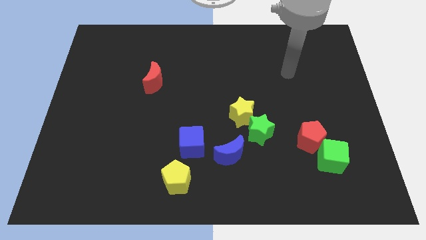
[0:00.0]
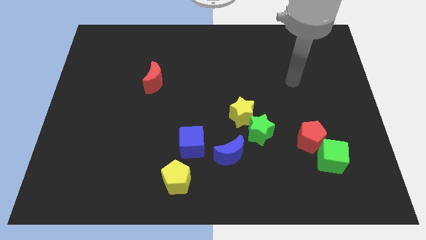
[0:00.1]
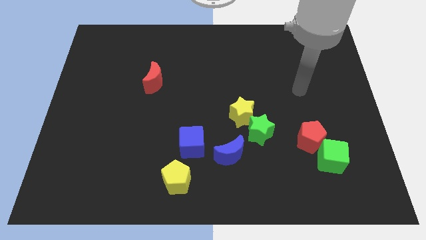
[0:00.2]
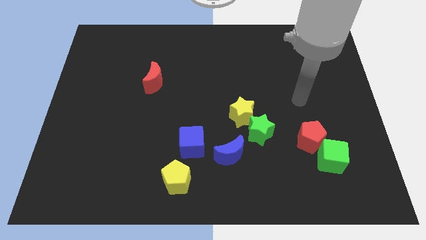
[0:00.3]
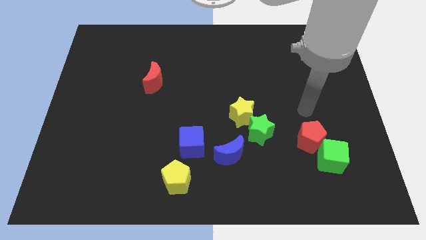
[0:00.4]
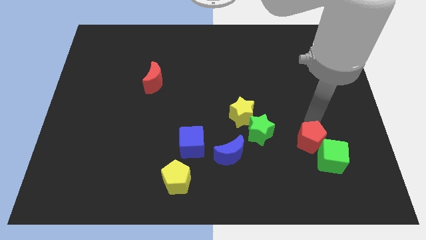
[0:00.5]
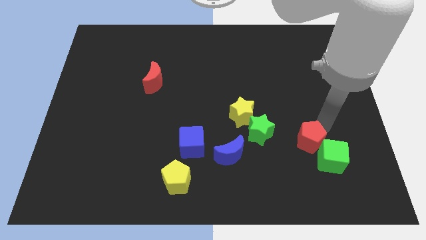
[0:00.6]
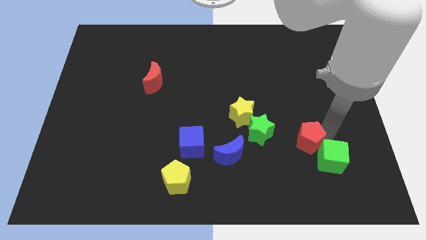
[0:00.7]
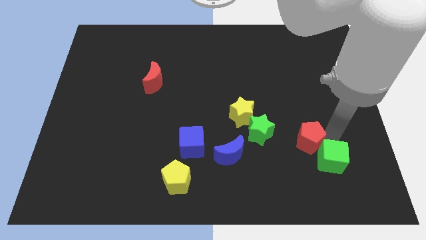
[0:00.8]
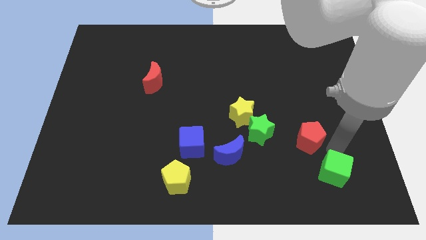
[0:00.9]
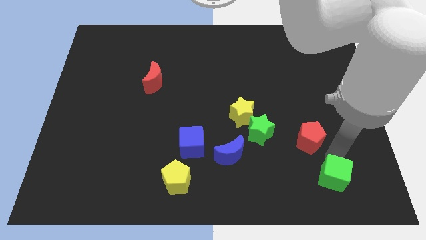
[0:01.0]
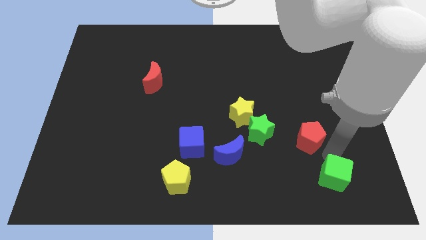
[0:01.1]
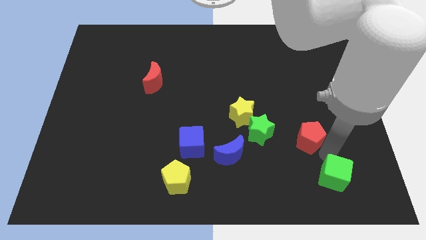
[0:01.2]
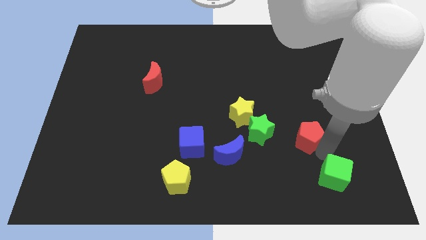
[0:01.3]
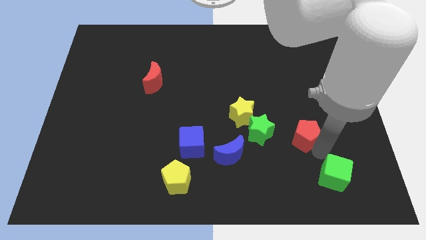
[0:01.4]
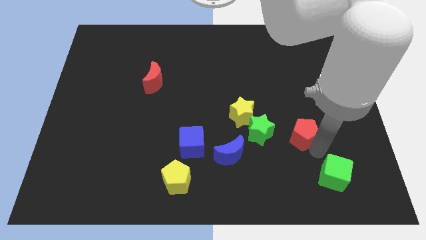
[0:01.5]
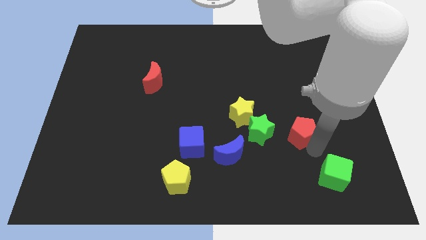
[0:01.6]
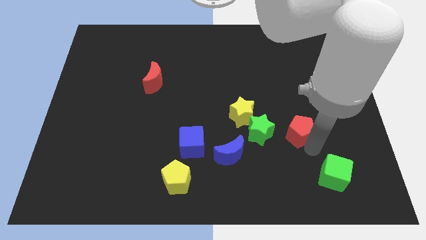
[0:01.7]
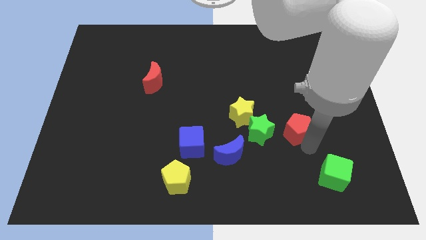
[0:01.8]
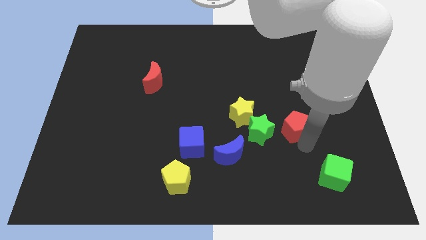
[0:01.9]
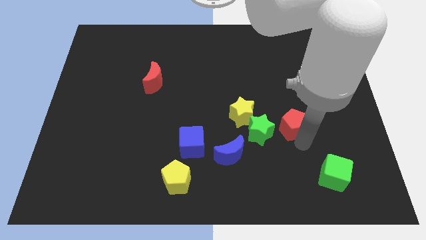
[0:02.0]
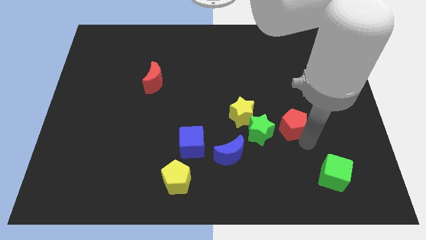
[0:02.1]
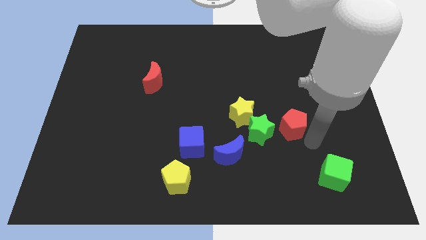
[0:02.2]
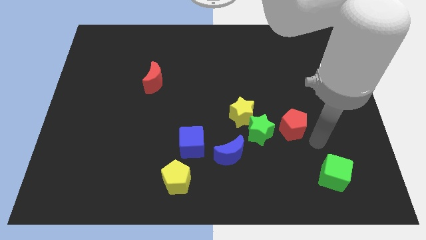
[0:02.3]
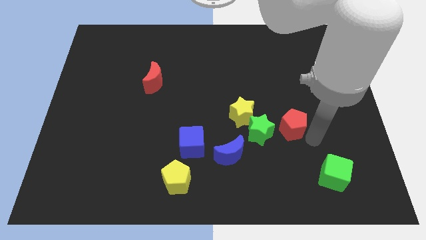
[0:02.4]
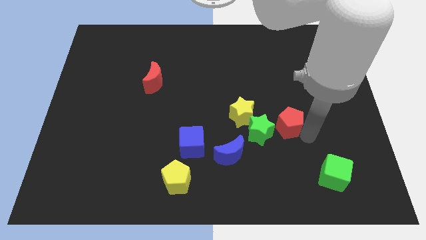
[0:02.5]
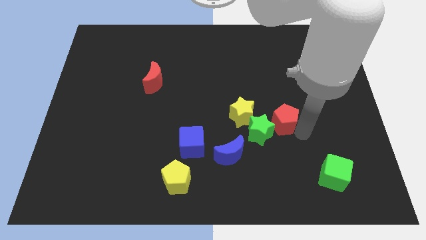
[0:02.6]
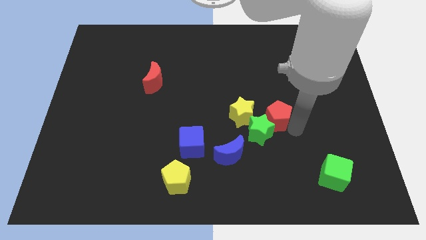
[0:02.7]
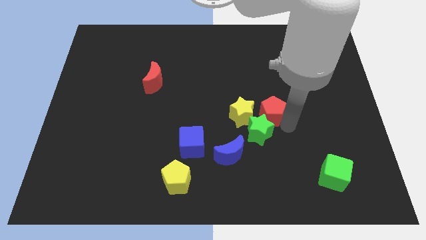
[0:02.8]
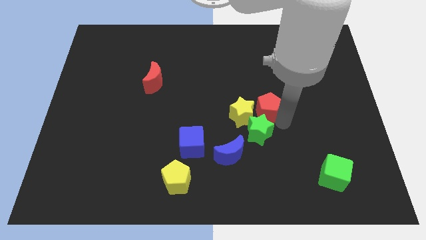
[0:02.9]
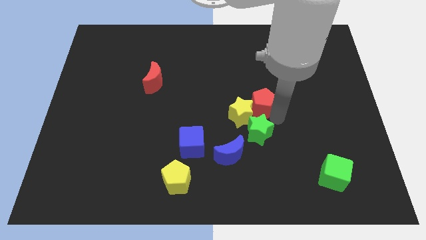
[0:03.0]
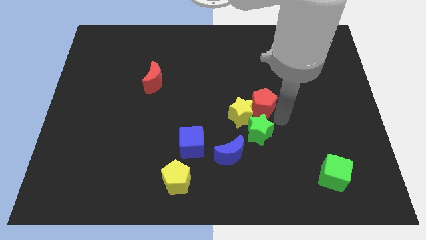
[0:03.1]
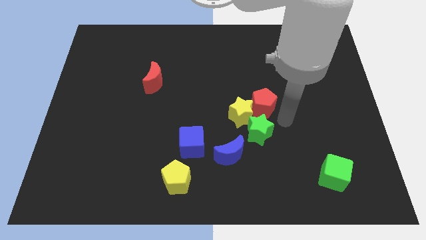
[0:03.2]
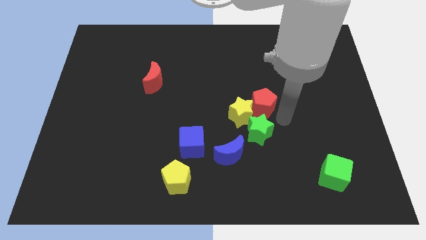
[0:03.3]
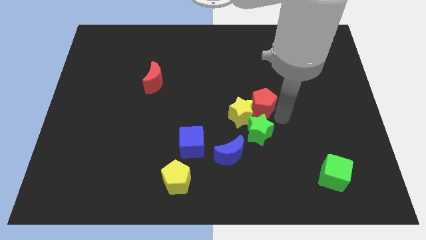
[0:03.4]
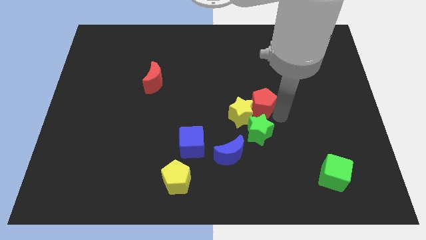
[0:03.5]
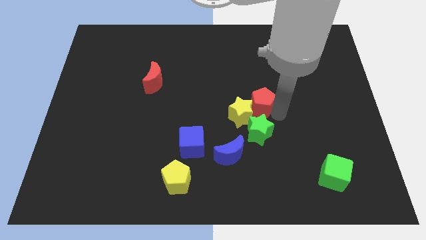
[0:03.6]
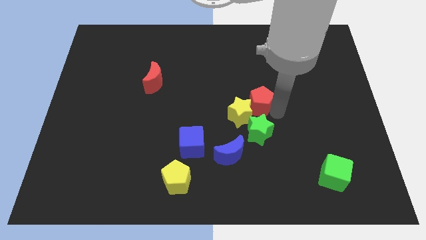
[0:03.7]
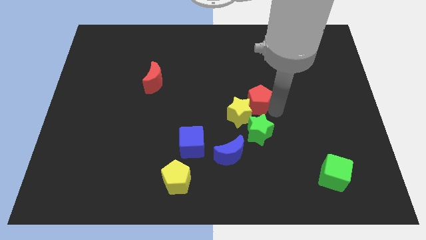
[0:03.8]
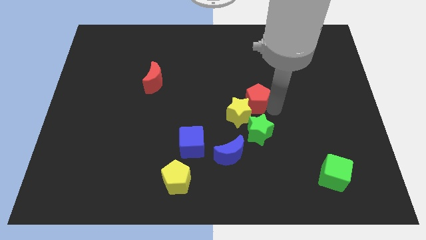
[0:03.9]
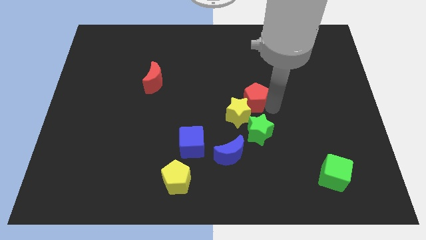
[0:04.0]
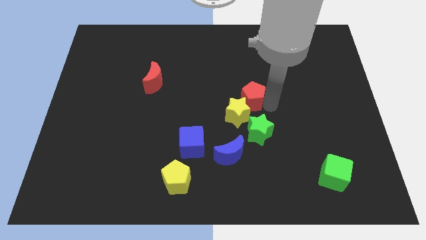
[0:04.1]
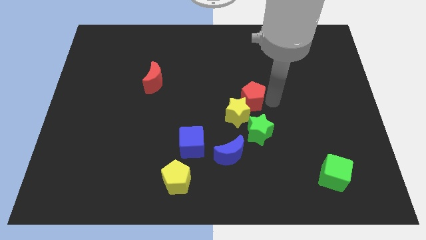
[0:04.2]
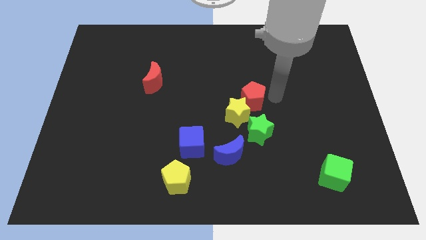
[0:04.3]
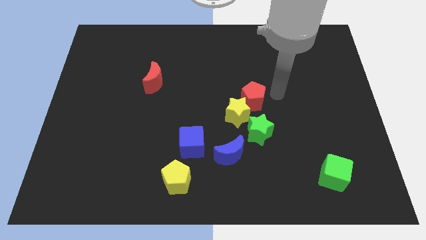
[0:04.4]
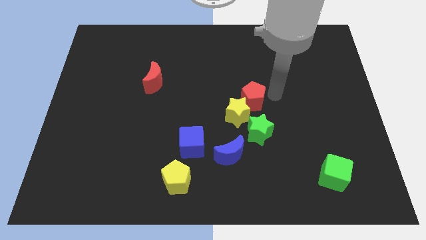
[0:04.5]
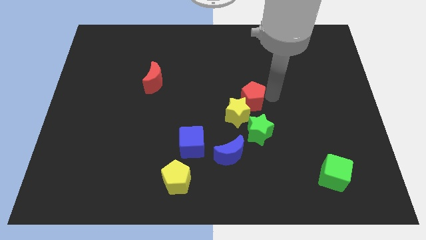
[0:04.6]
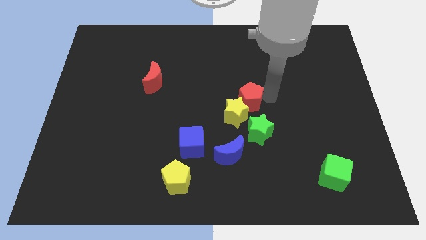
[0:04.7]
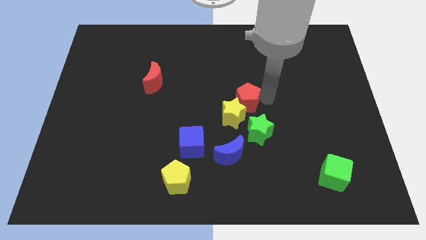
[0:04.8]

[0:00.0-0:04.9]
slightly slide the red pentagon left

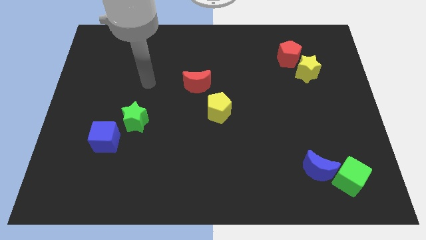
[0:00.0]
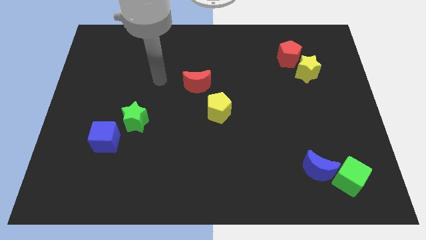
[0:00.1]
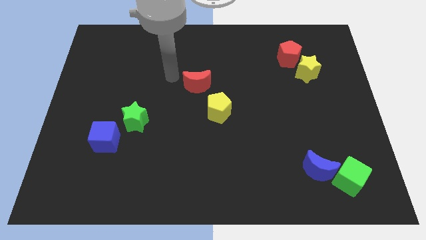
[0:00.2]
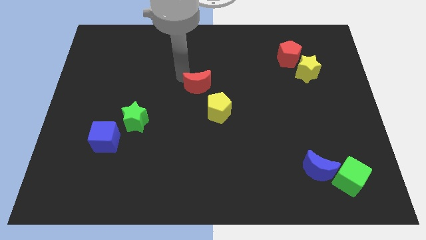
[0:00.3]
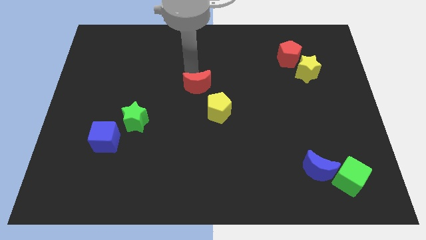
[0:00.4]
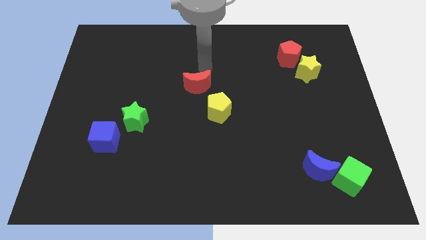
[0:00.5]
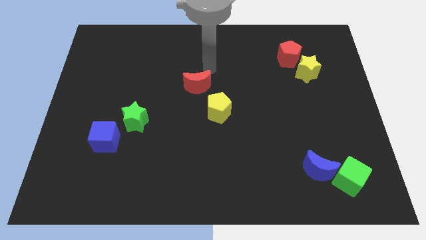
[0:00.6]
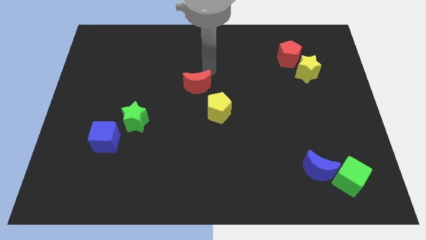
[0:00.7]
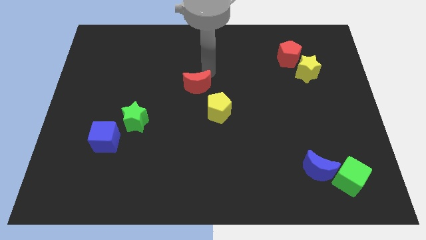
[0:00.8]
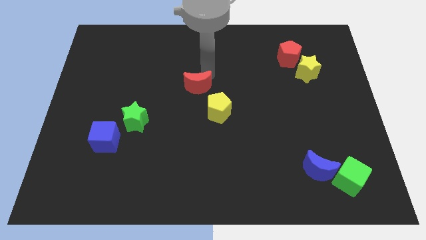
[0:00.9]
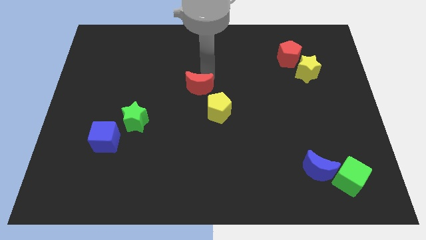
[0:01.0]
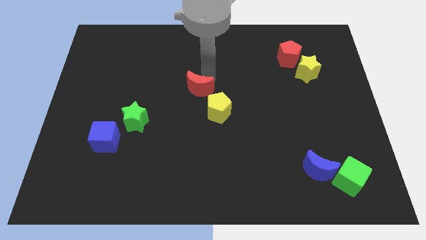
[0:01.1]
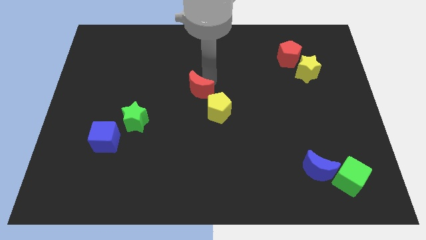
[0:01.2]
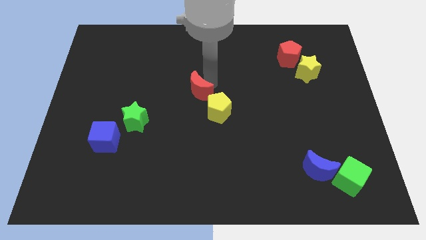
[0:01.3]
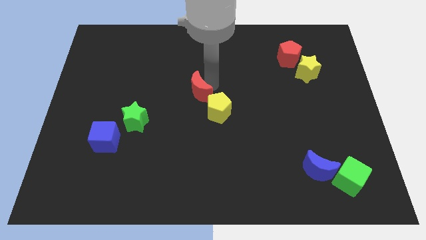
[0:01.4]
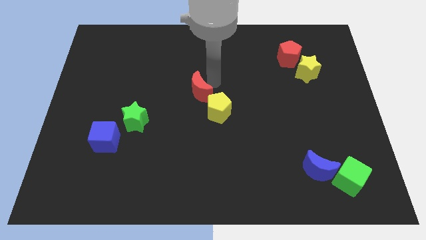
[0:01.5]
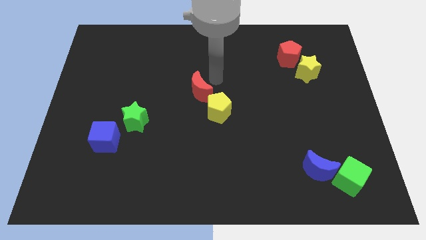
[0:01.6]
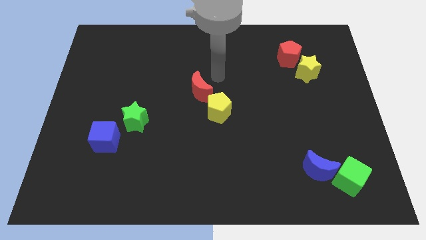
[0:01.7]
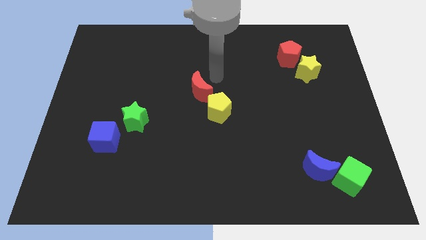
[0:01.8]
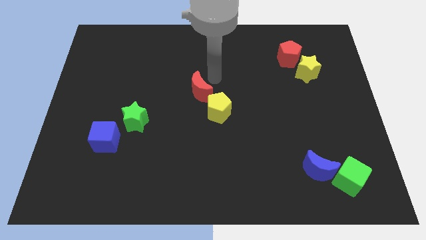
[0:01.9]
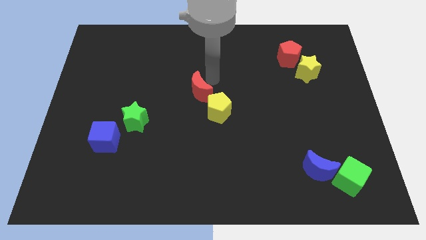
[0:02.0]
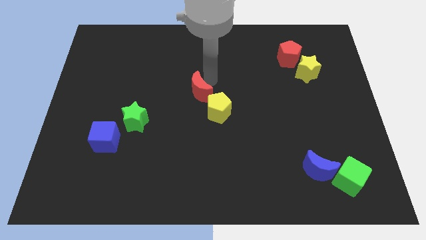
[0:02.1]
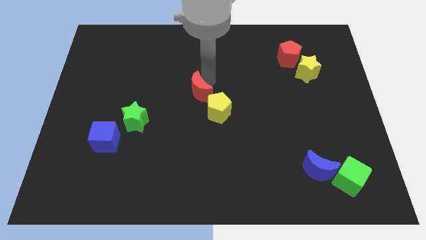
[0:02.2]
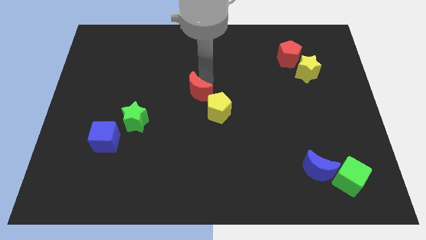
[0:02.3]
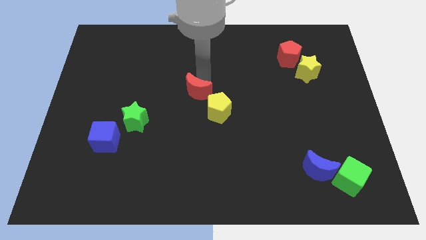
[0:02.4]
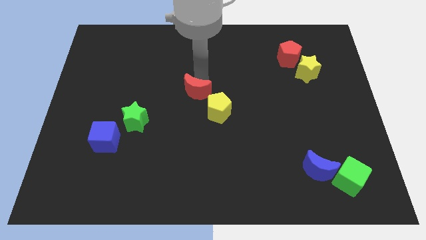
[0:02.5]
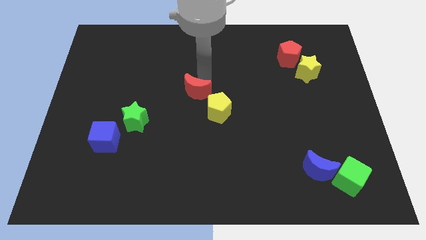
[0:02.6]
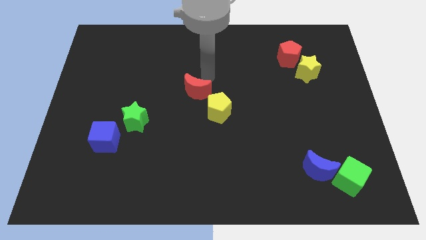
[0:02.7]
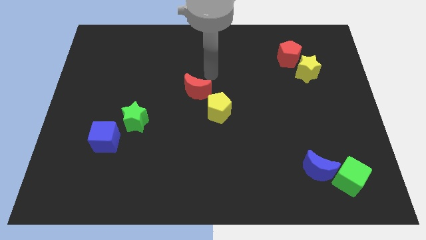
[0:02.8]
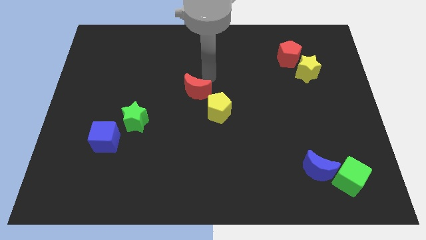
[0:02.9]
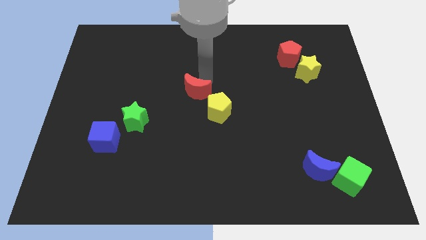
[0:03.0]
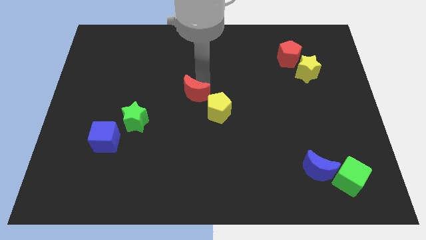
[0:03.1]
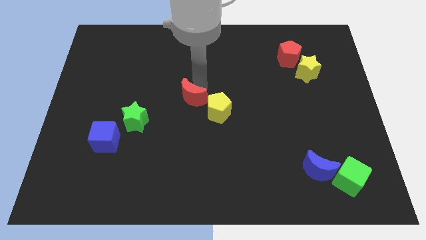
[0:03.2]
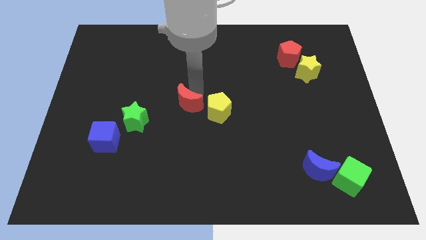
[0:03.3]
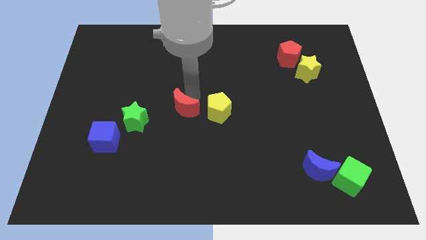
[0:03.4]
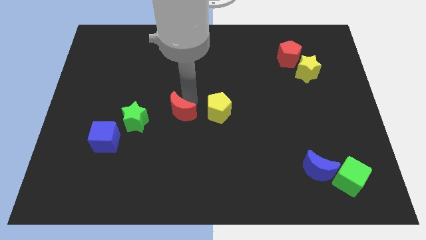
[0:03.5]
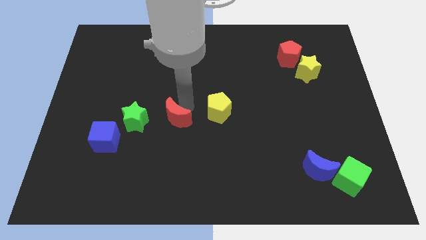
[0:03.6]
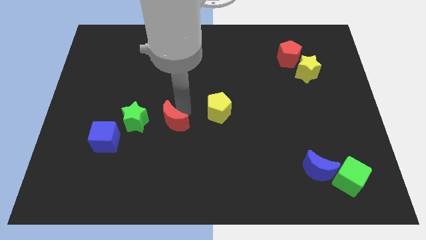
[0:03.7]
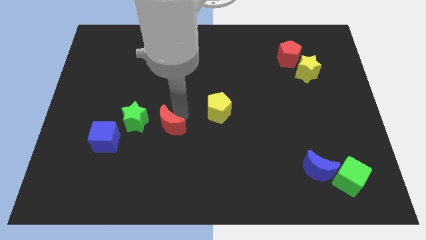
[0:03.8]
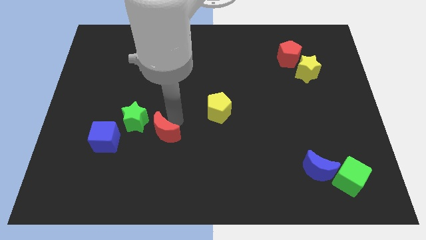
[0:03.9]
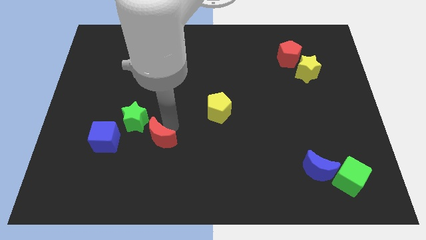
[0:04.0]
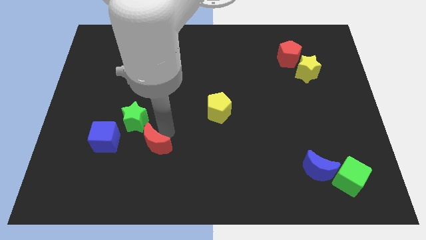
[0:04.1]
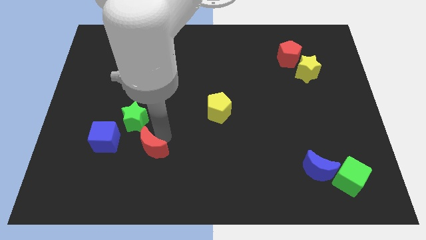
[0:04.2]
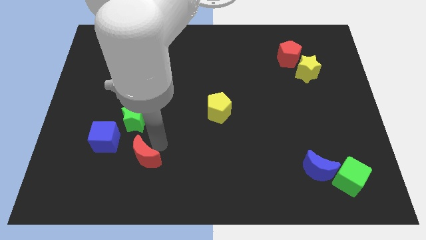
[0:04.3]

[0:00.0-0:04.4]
push the red moon downwards and to the left
